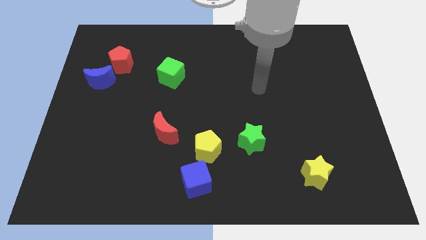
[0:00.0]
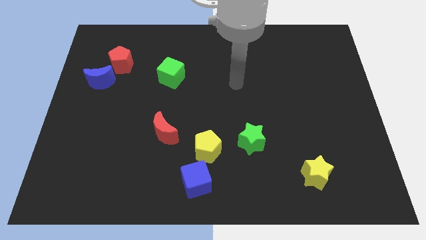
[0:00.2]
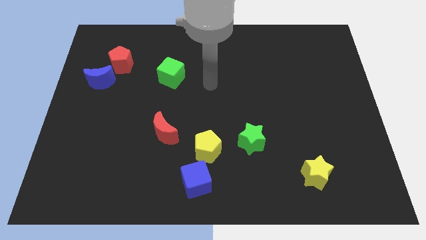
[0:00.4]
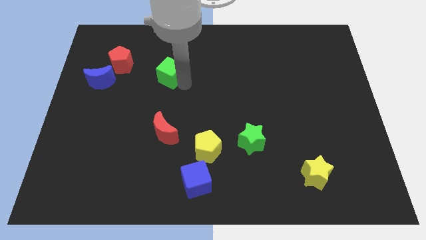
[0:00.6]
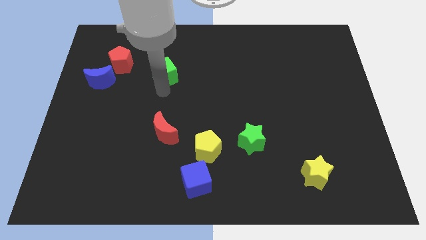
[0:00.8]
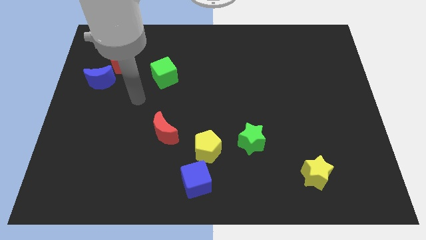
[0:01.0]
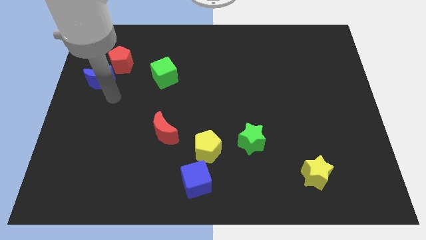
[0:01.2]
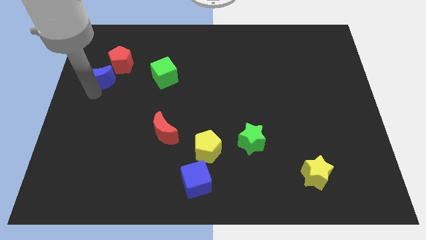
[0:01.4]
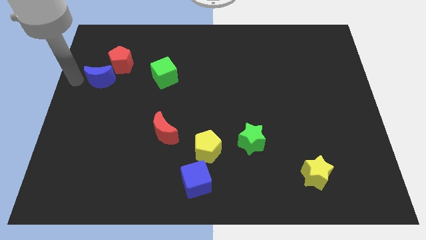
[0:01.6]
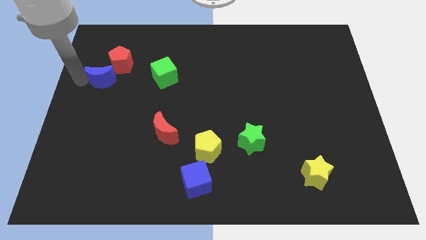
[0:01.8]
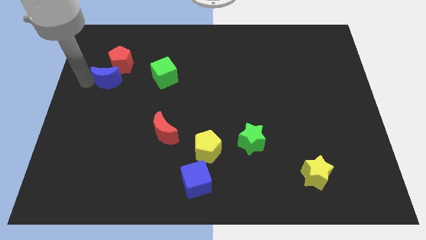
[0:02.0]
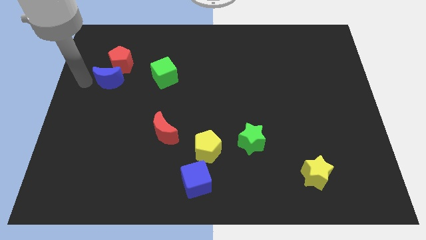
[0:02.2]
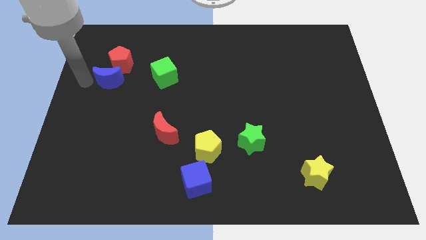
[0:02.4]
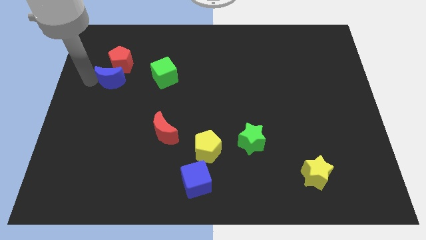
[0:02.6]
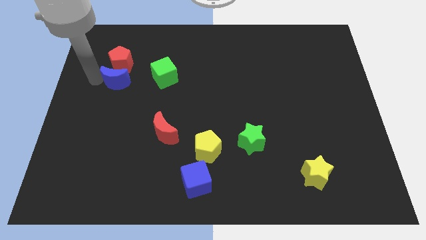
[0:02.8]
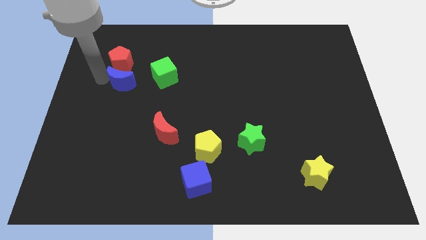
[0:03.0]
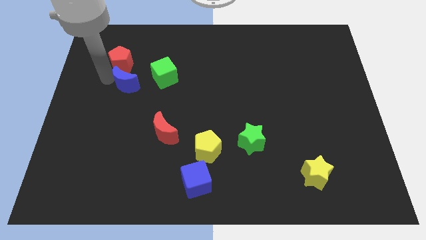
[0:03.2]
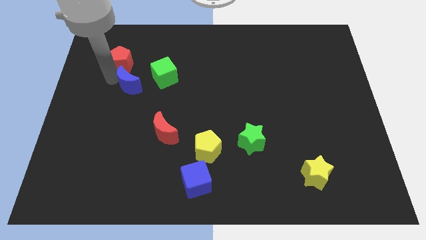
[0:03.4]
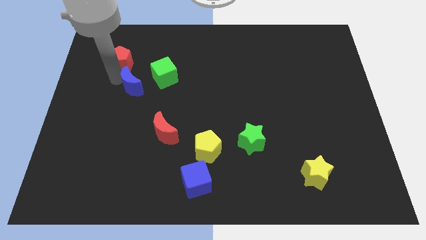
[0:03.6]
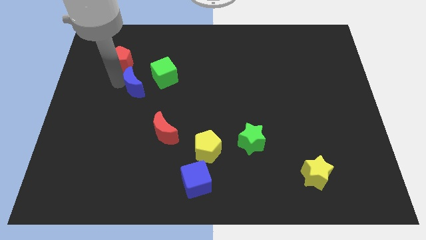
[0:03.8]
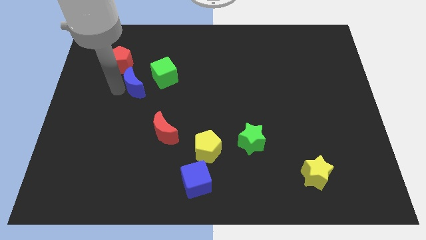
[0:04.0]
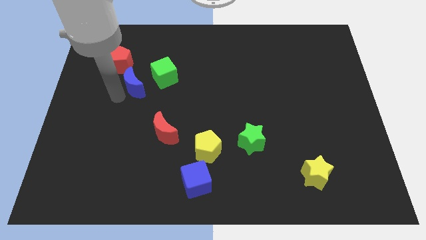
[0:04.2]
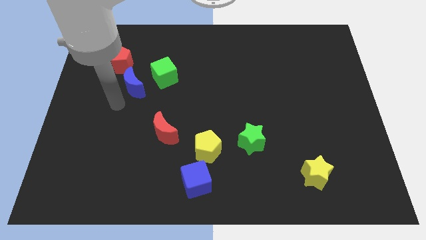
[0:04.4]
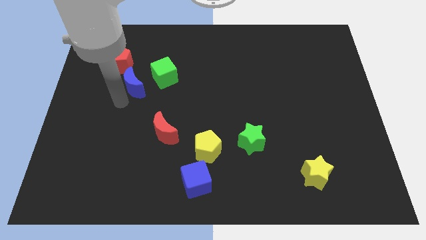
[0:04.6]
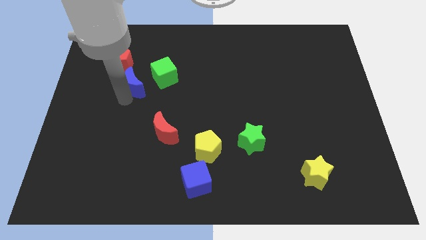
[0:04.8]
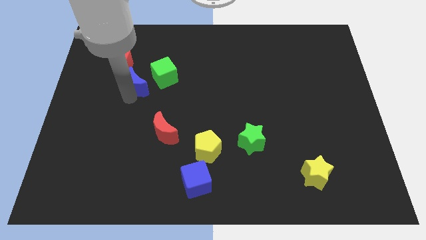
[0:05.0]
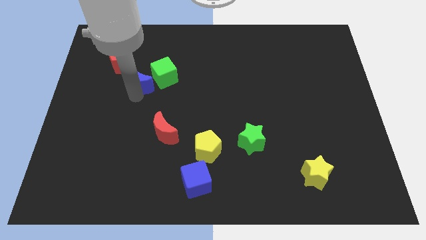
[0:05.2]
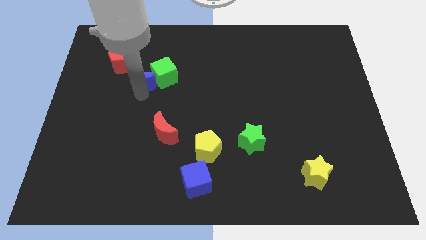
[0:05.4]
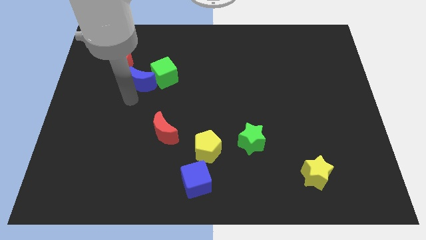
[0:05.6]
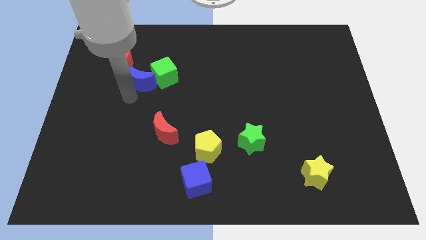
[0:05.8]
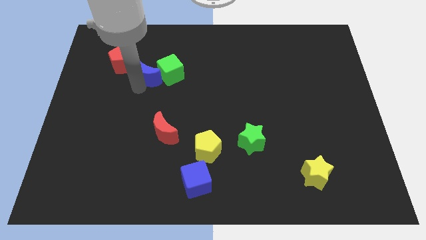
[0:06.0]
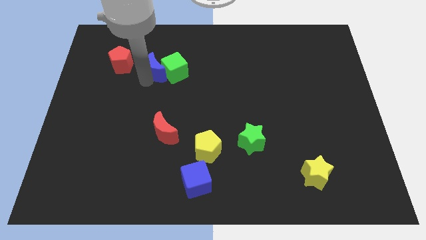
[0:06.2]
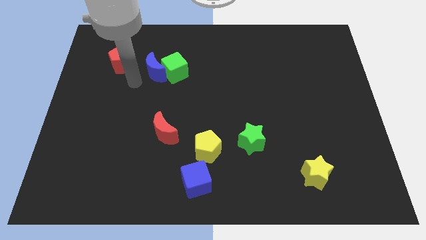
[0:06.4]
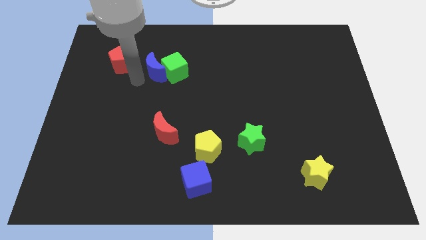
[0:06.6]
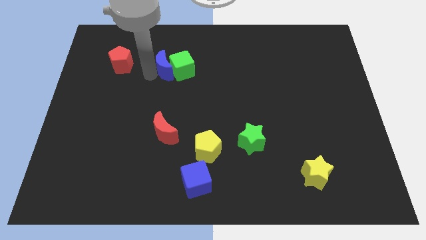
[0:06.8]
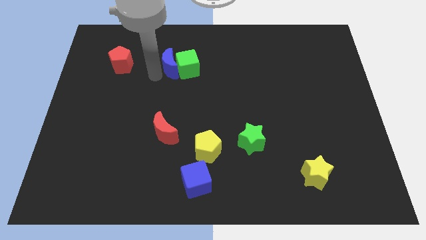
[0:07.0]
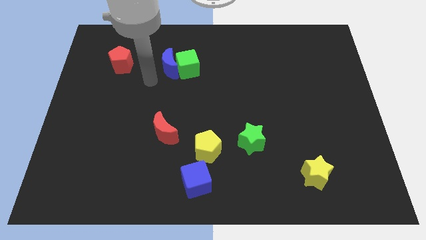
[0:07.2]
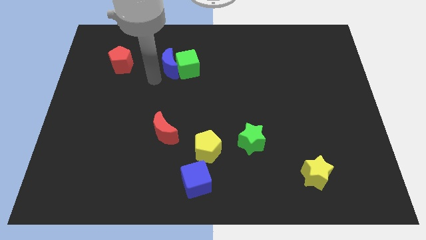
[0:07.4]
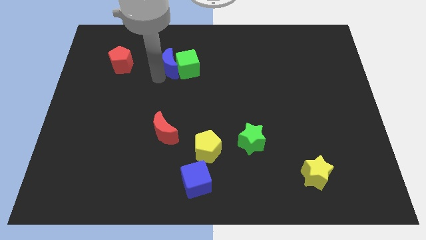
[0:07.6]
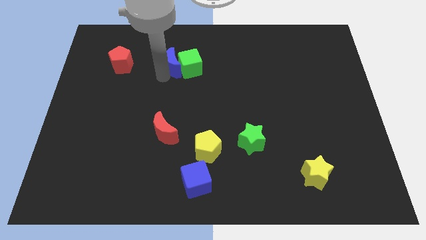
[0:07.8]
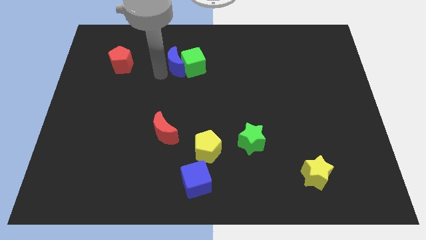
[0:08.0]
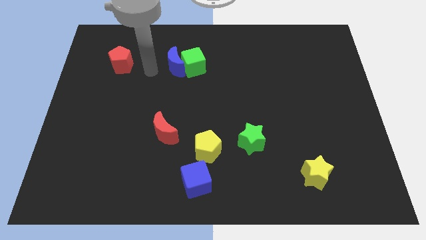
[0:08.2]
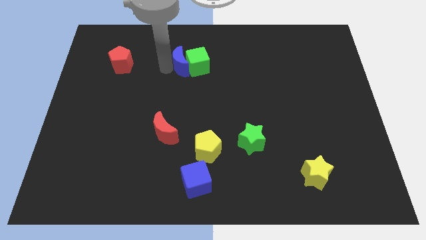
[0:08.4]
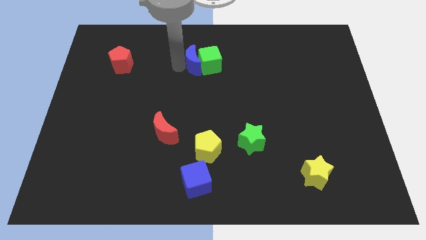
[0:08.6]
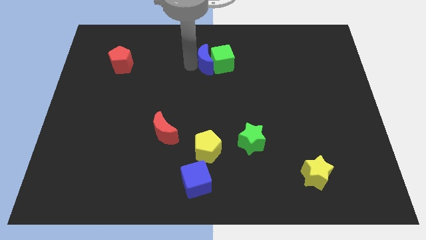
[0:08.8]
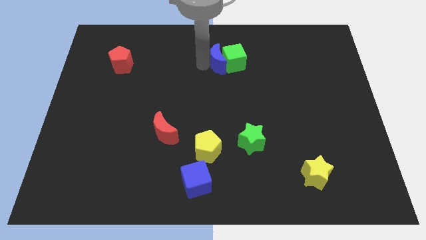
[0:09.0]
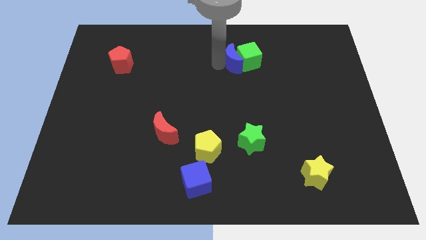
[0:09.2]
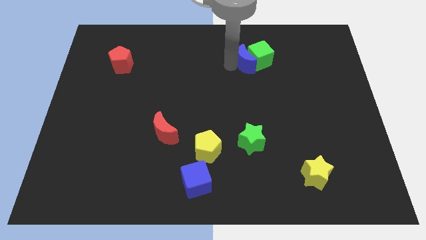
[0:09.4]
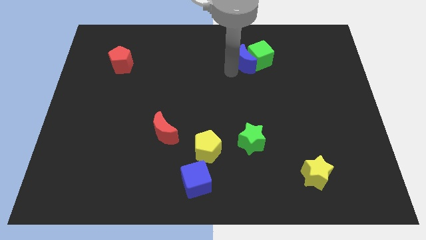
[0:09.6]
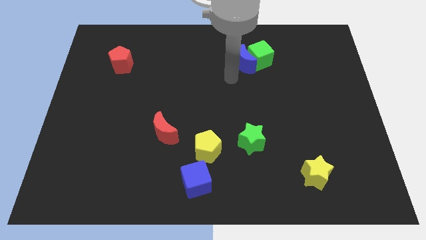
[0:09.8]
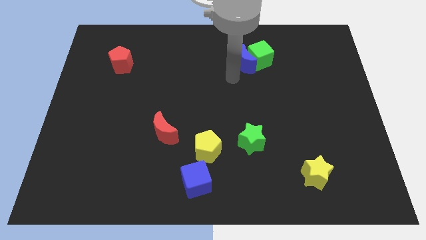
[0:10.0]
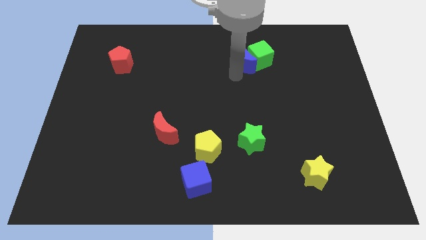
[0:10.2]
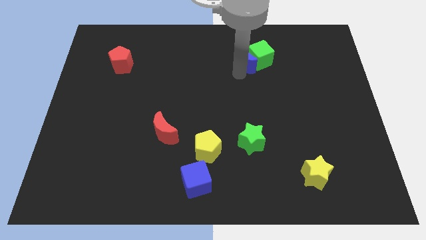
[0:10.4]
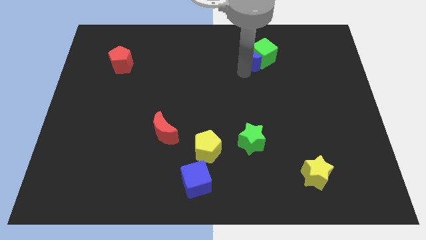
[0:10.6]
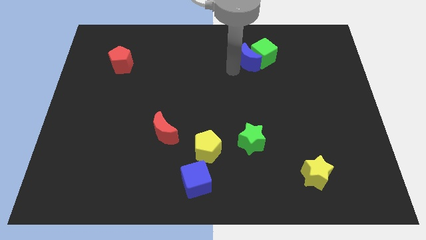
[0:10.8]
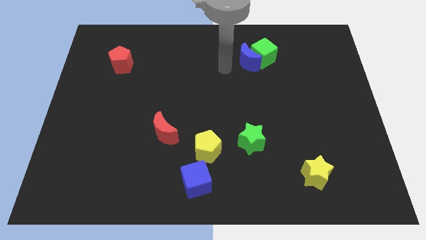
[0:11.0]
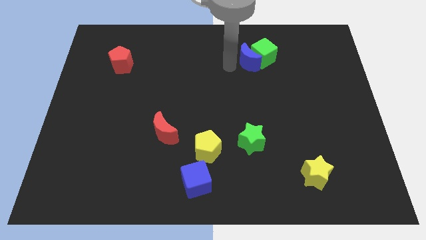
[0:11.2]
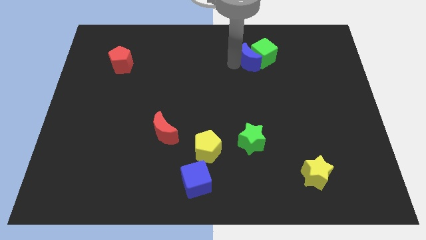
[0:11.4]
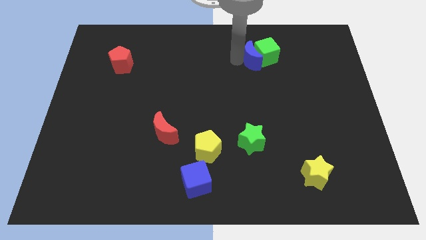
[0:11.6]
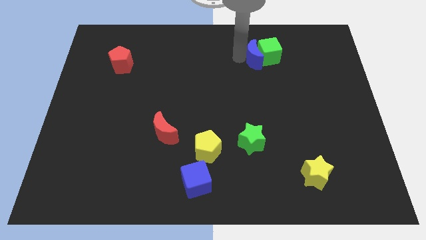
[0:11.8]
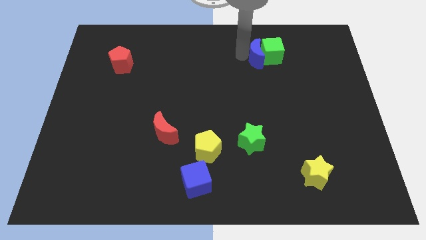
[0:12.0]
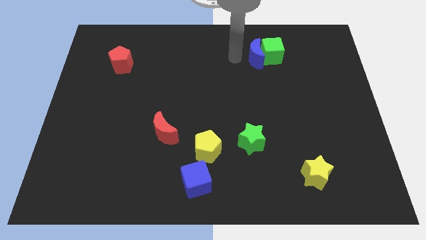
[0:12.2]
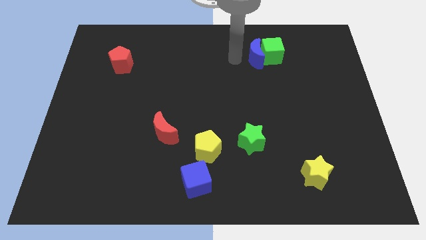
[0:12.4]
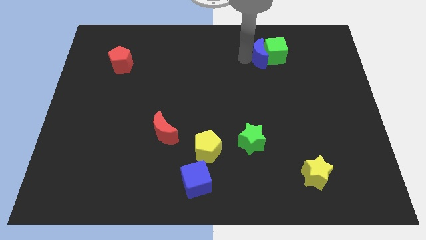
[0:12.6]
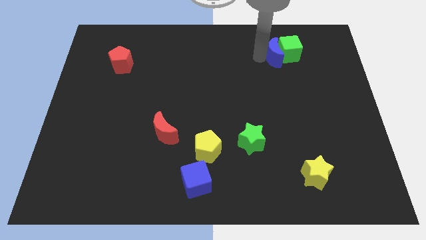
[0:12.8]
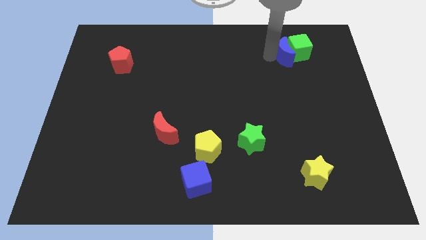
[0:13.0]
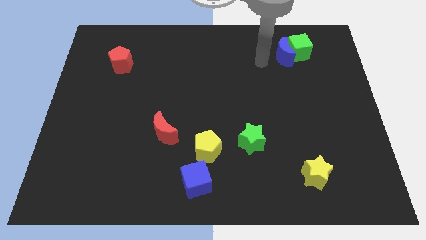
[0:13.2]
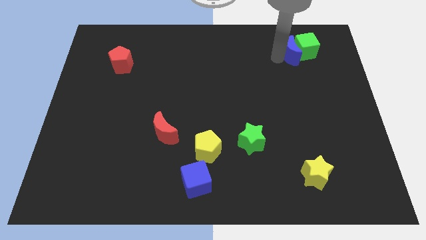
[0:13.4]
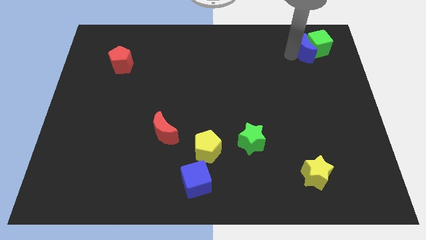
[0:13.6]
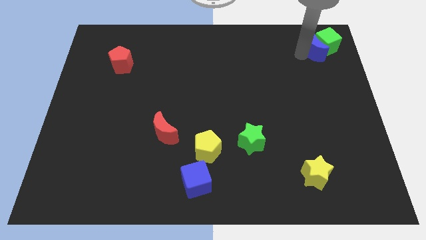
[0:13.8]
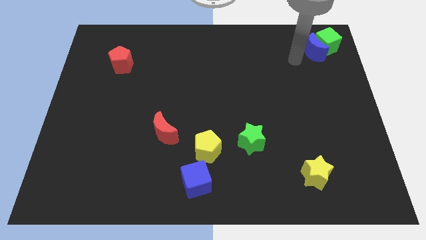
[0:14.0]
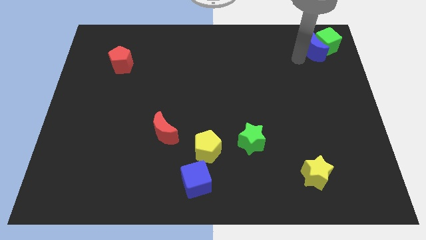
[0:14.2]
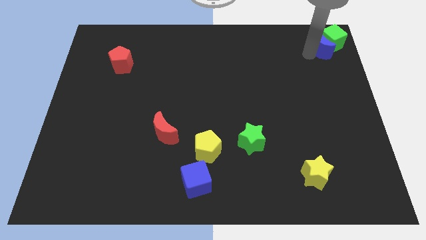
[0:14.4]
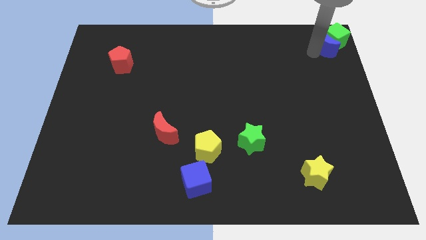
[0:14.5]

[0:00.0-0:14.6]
put the blue moon to the top right
